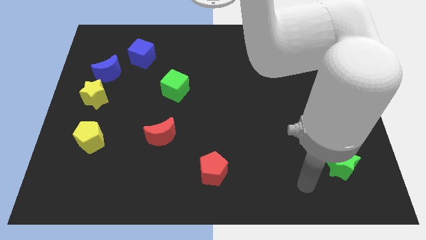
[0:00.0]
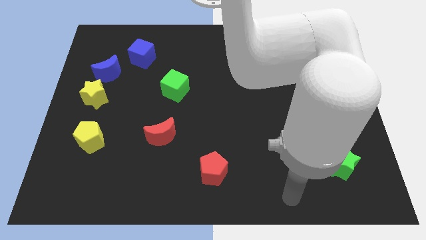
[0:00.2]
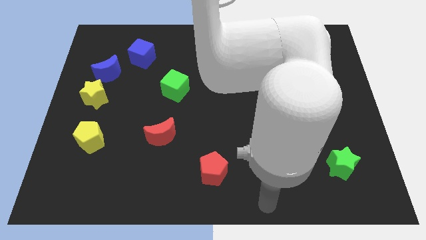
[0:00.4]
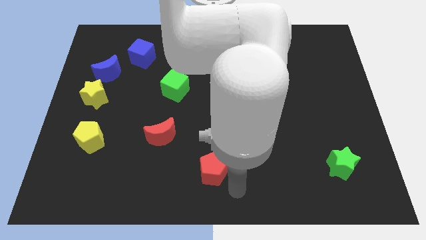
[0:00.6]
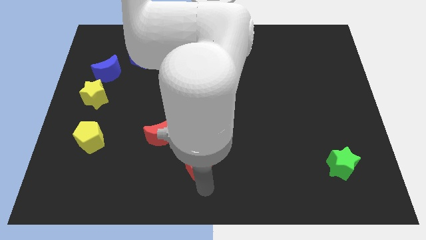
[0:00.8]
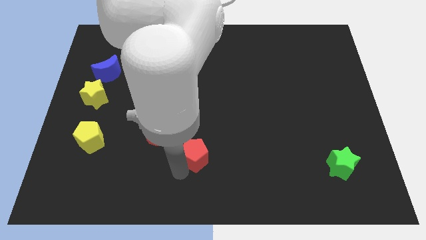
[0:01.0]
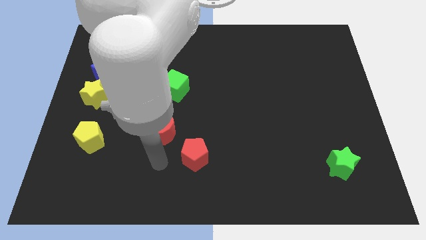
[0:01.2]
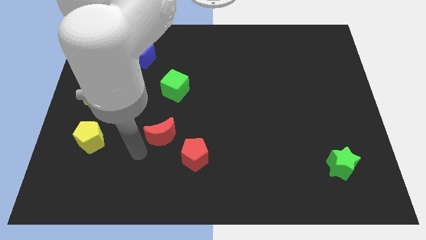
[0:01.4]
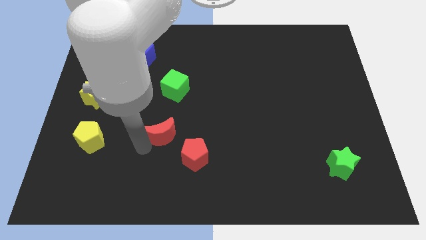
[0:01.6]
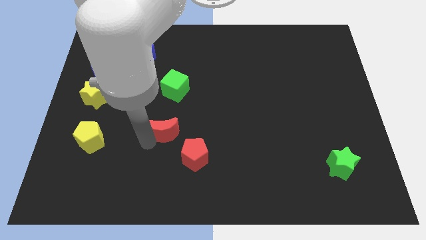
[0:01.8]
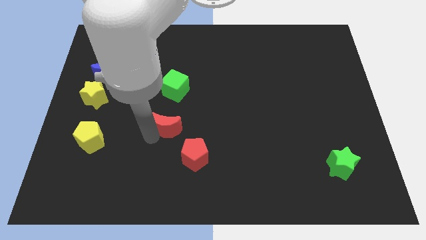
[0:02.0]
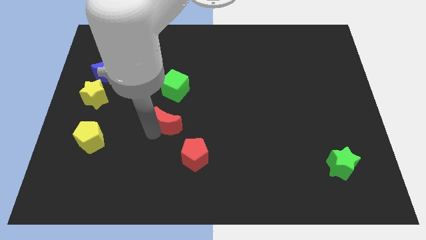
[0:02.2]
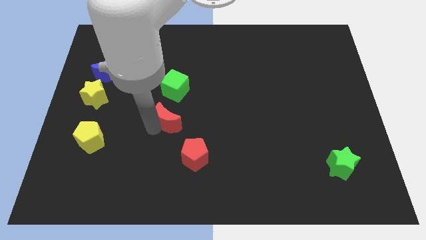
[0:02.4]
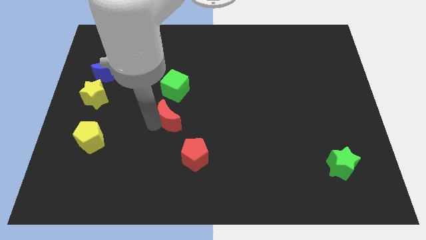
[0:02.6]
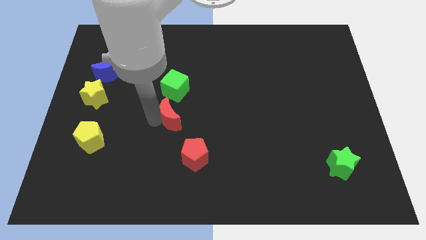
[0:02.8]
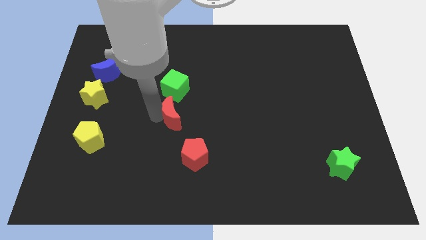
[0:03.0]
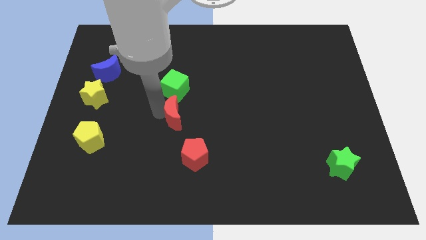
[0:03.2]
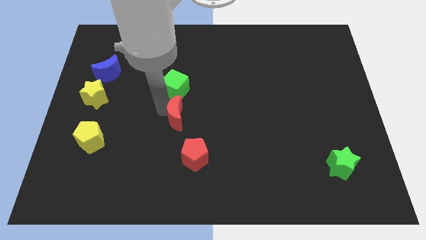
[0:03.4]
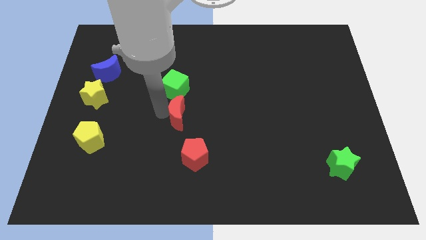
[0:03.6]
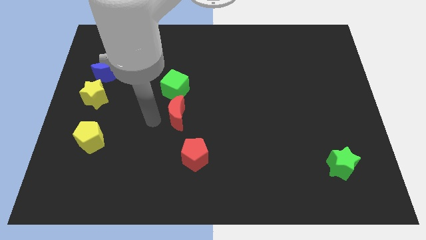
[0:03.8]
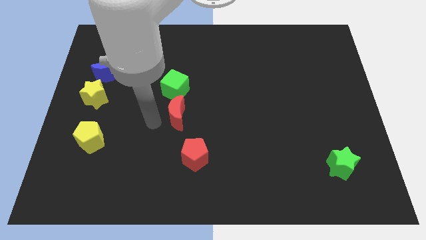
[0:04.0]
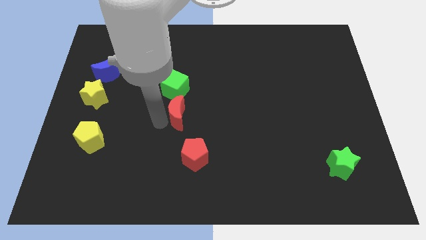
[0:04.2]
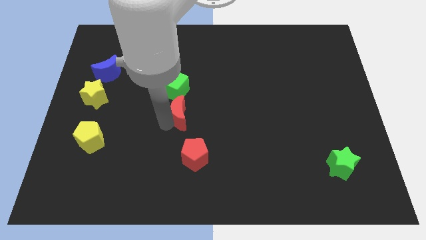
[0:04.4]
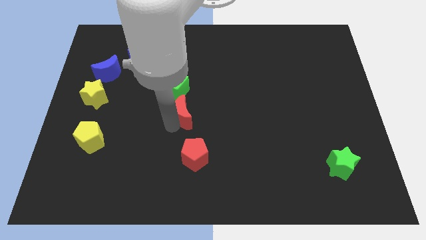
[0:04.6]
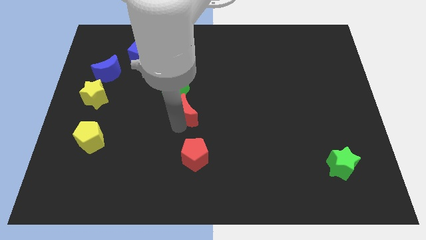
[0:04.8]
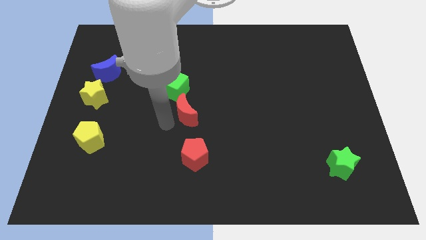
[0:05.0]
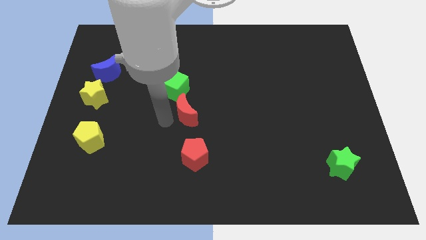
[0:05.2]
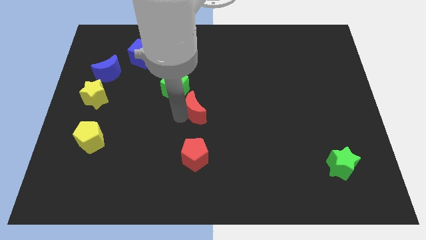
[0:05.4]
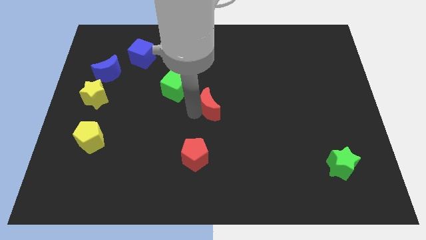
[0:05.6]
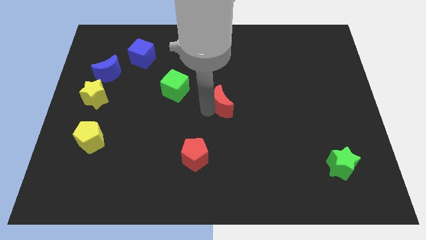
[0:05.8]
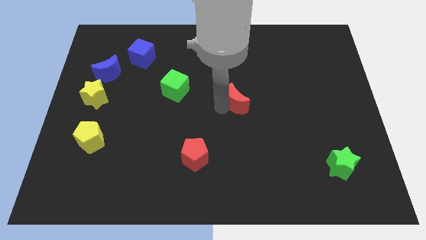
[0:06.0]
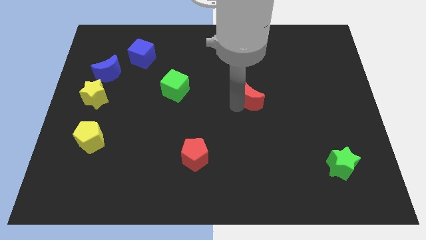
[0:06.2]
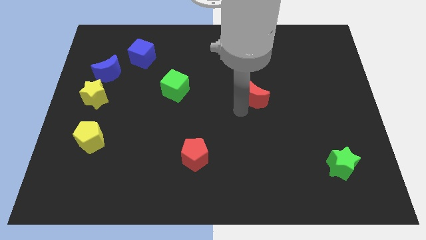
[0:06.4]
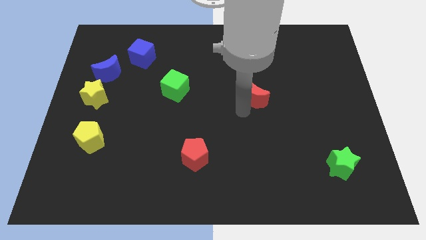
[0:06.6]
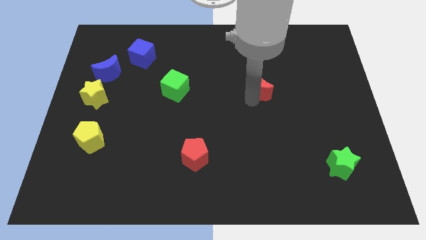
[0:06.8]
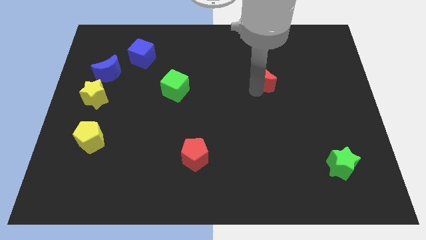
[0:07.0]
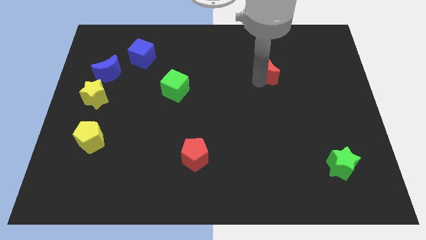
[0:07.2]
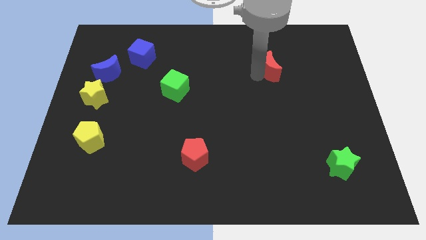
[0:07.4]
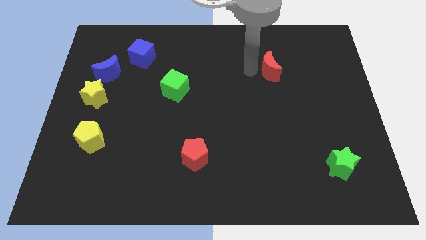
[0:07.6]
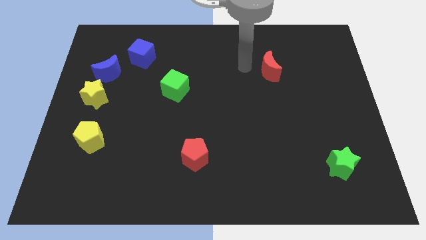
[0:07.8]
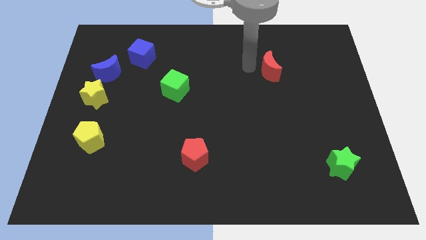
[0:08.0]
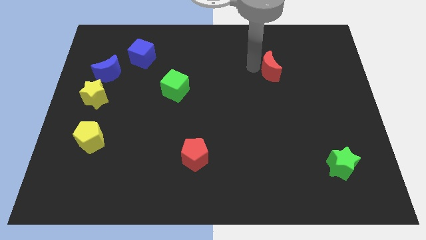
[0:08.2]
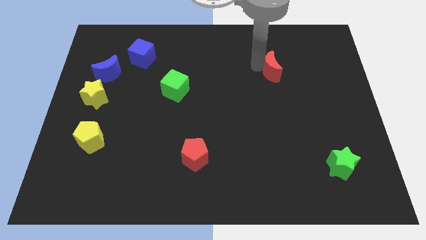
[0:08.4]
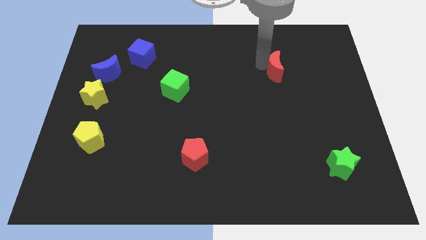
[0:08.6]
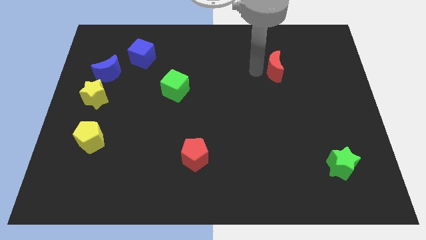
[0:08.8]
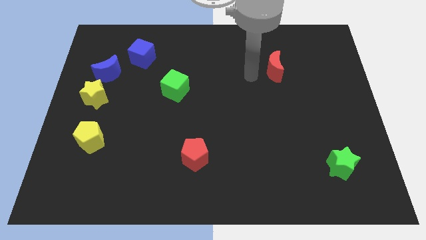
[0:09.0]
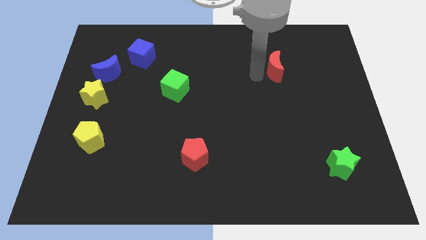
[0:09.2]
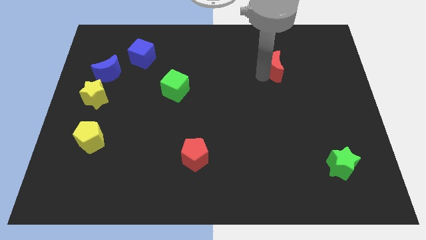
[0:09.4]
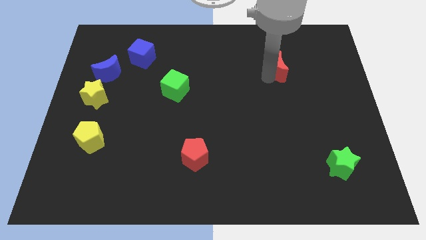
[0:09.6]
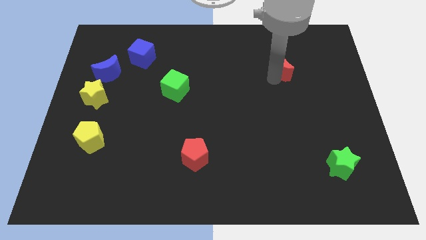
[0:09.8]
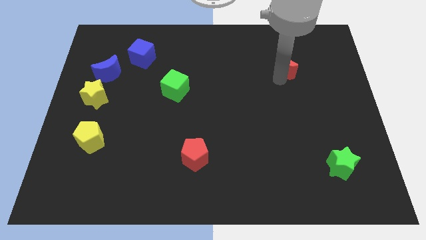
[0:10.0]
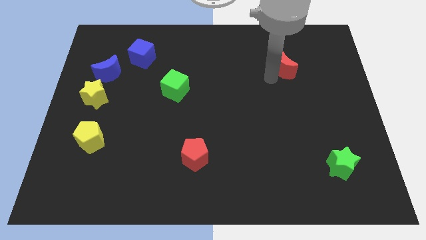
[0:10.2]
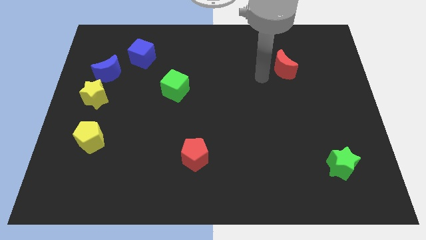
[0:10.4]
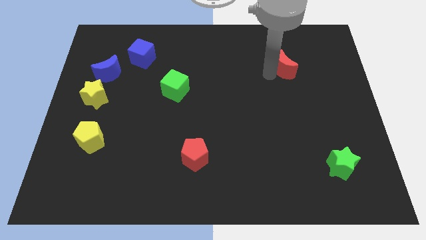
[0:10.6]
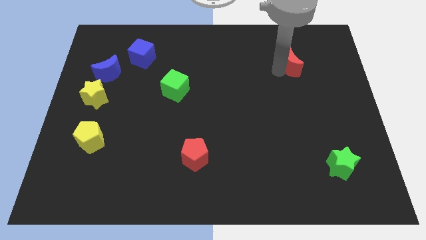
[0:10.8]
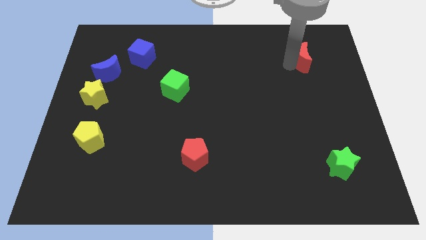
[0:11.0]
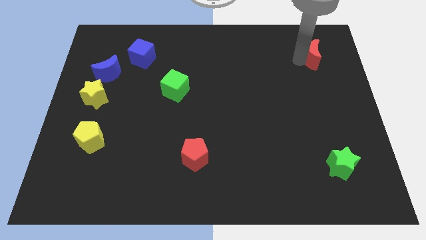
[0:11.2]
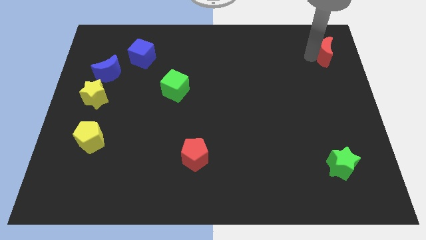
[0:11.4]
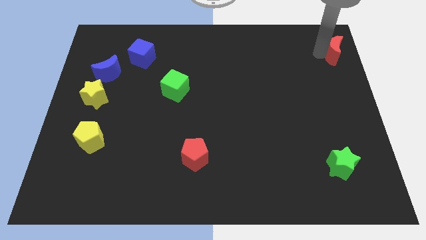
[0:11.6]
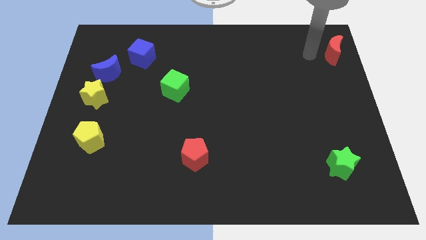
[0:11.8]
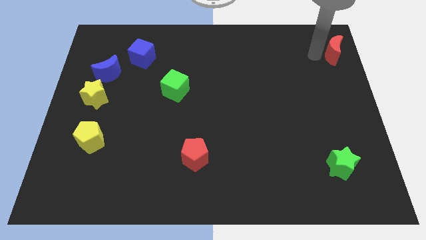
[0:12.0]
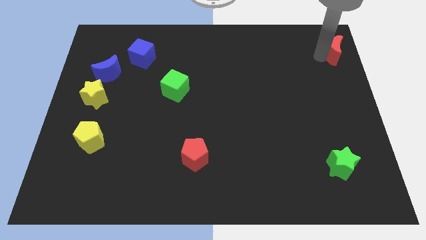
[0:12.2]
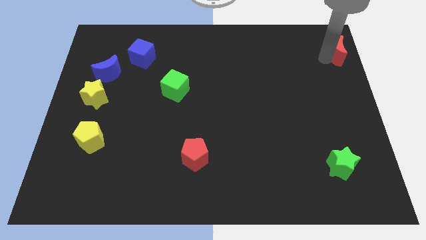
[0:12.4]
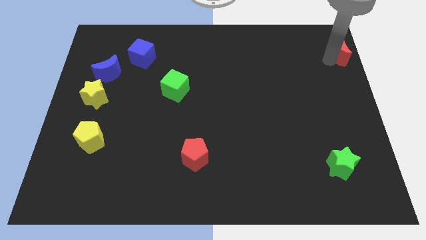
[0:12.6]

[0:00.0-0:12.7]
push the red moon to the top right of the board

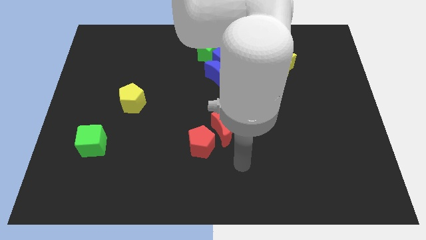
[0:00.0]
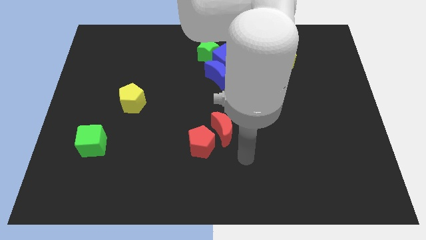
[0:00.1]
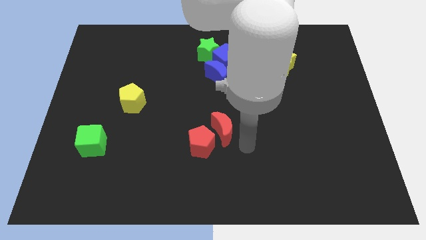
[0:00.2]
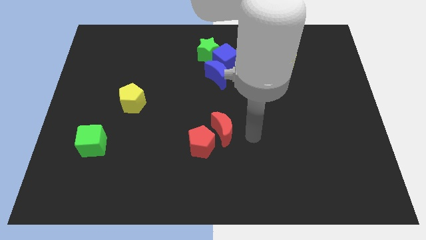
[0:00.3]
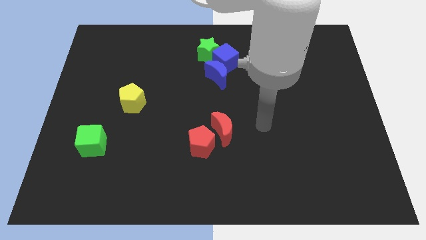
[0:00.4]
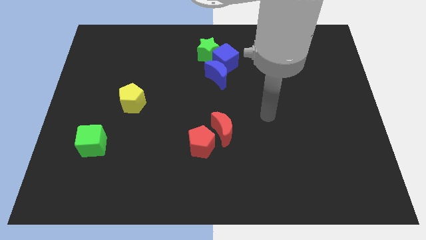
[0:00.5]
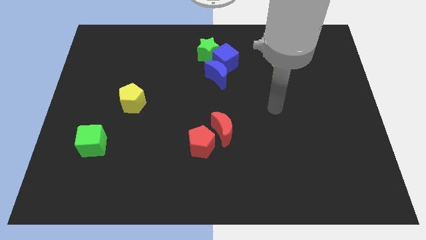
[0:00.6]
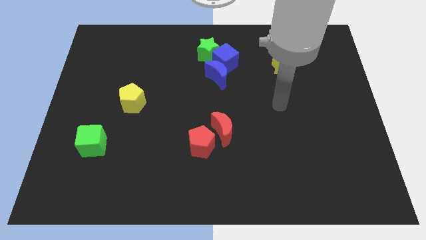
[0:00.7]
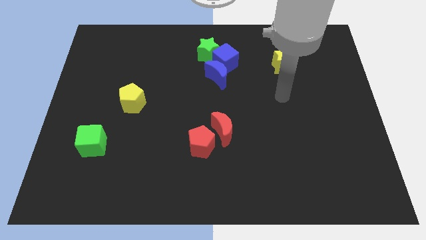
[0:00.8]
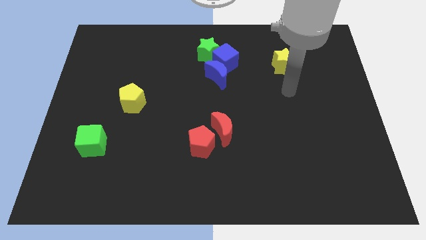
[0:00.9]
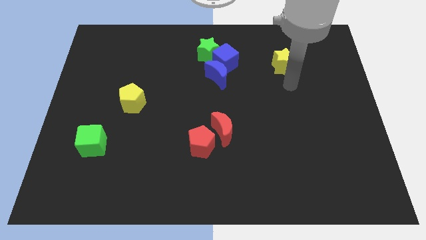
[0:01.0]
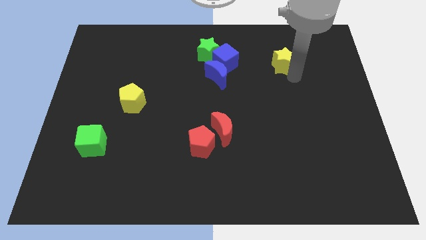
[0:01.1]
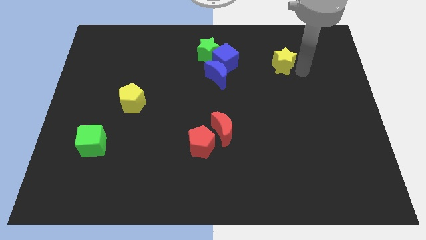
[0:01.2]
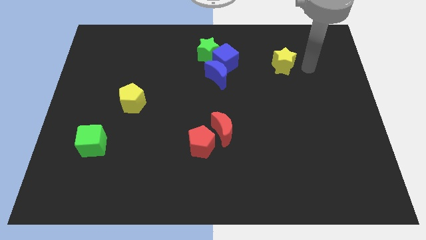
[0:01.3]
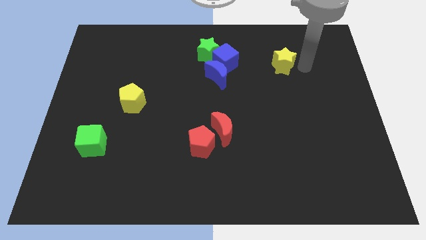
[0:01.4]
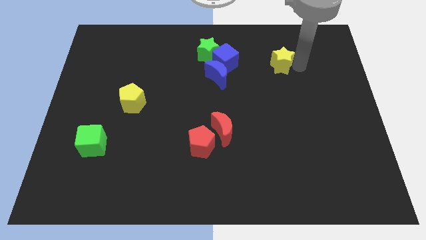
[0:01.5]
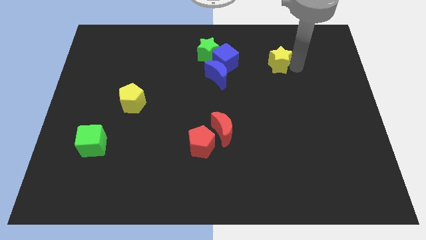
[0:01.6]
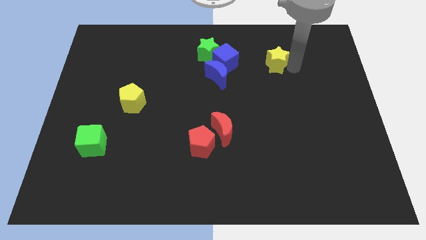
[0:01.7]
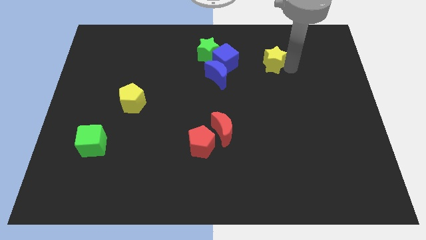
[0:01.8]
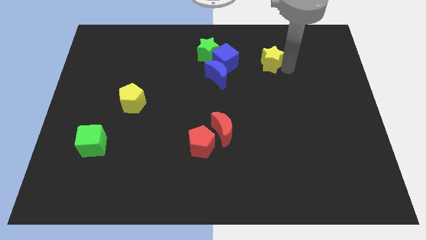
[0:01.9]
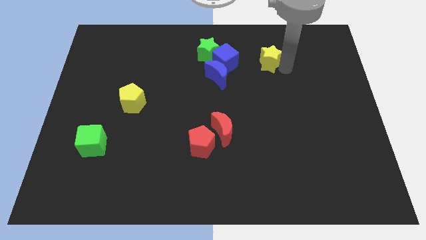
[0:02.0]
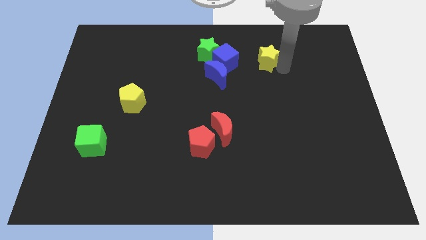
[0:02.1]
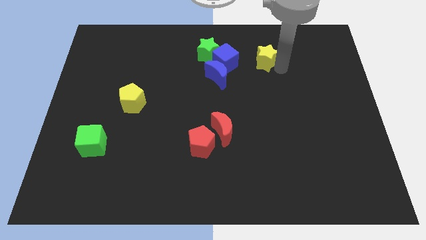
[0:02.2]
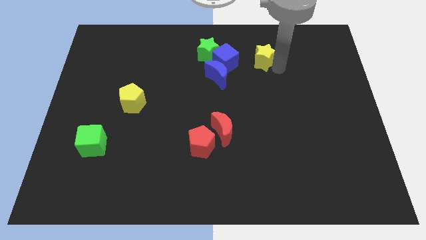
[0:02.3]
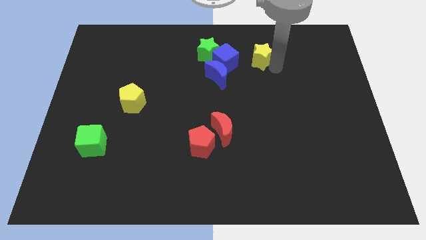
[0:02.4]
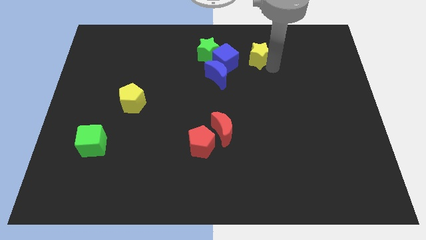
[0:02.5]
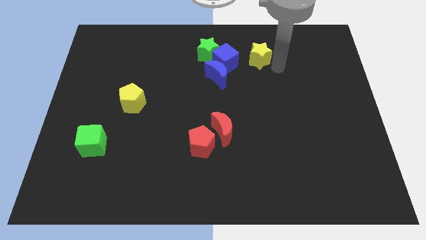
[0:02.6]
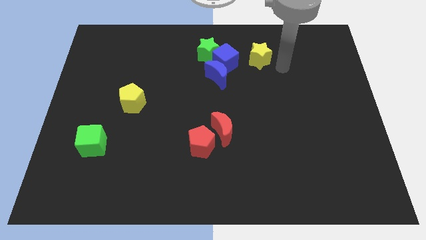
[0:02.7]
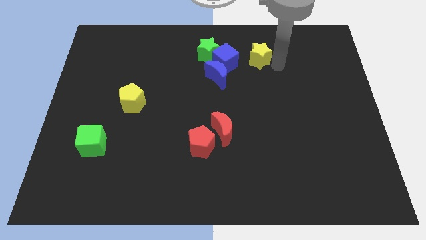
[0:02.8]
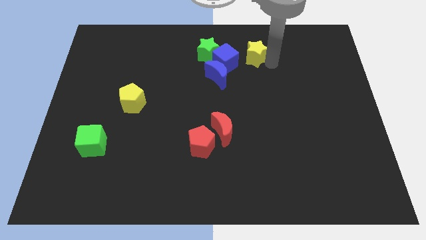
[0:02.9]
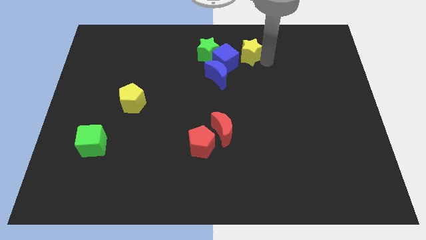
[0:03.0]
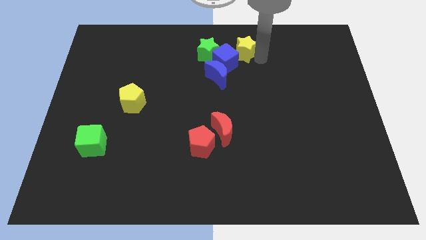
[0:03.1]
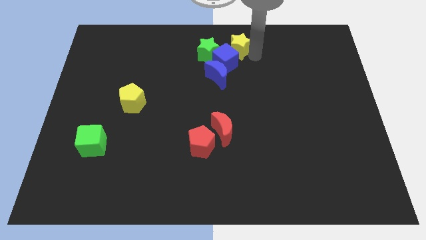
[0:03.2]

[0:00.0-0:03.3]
move the yellow star to the top side
